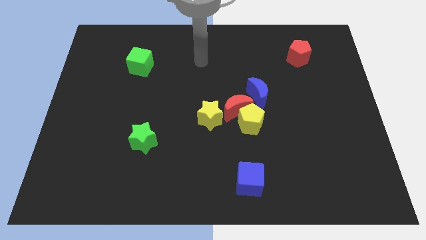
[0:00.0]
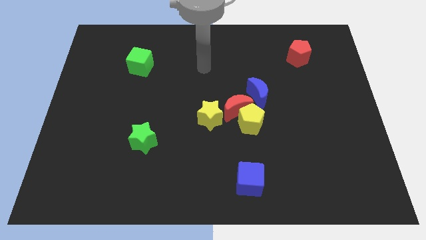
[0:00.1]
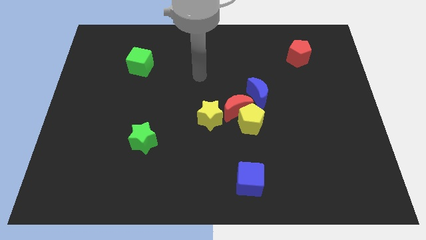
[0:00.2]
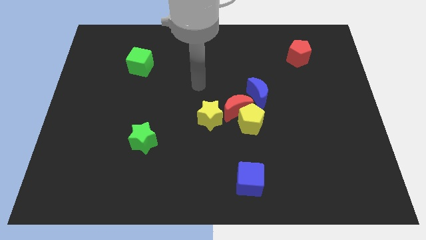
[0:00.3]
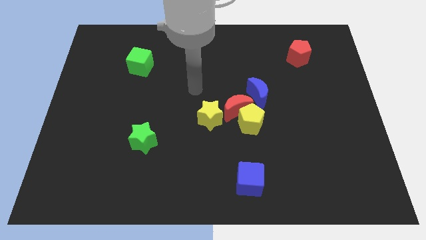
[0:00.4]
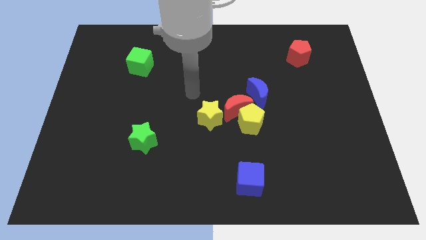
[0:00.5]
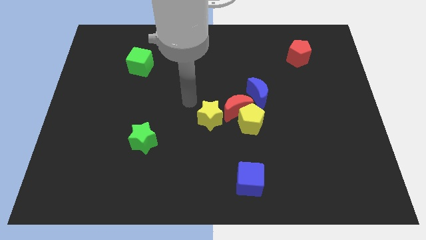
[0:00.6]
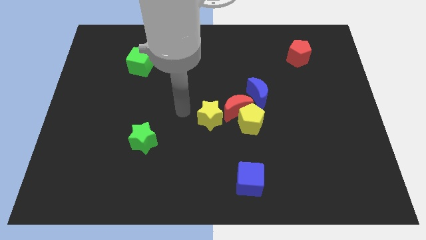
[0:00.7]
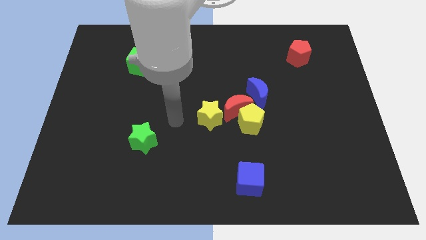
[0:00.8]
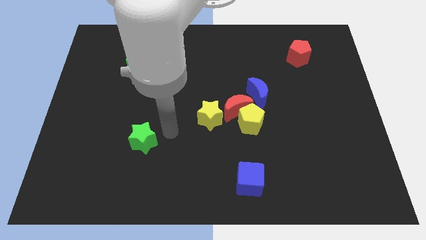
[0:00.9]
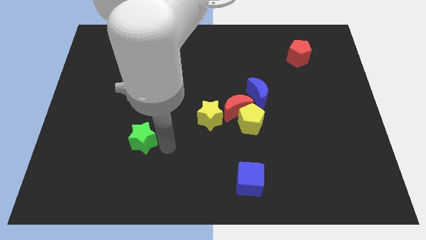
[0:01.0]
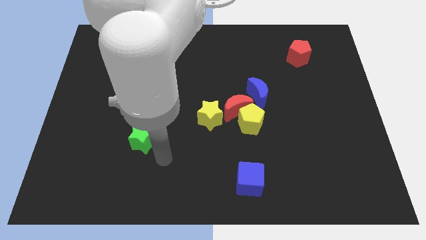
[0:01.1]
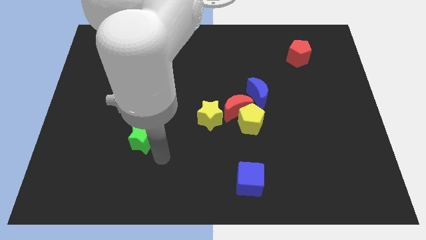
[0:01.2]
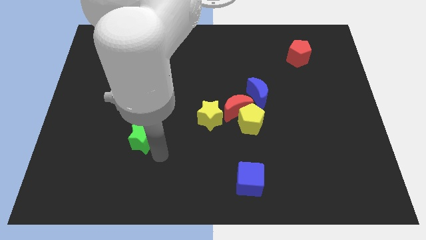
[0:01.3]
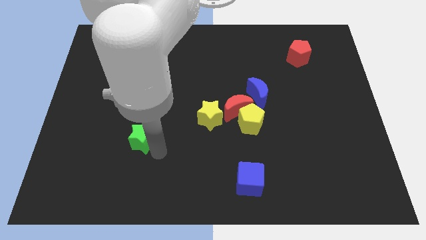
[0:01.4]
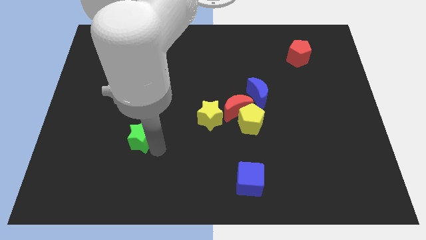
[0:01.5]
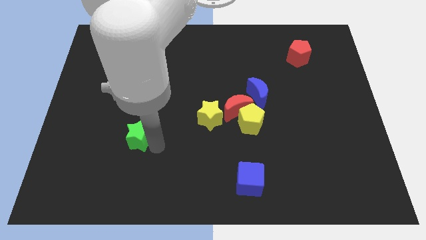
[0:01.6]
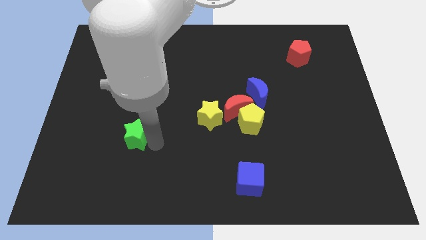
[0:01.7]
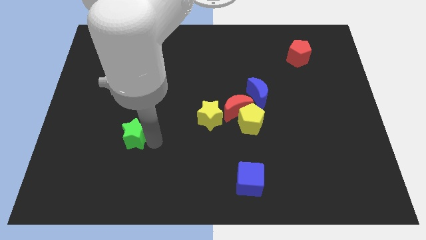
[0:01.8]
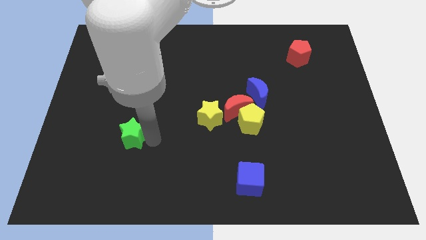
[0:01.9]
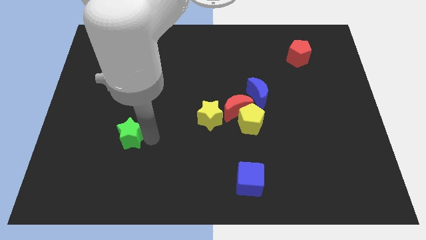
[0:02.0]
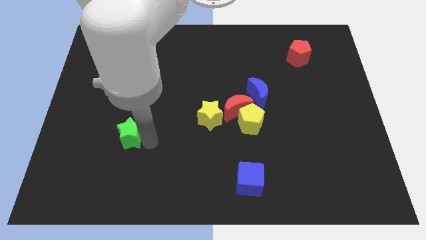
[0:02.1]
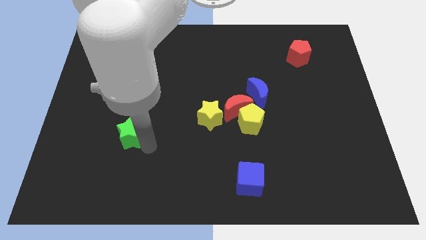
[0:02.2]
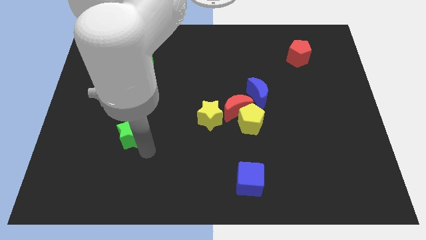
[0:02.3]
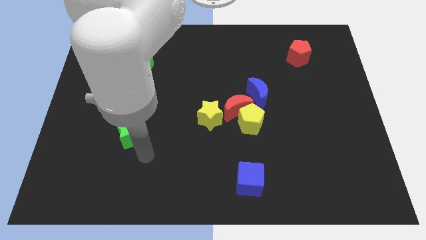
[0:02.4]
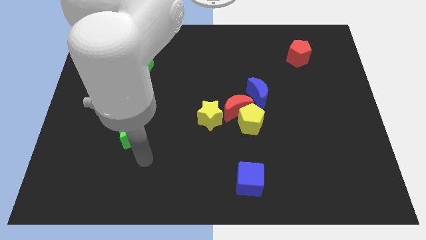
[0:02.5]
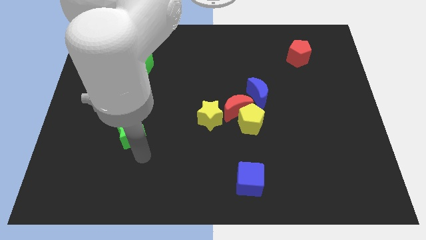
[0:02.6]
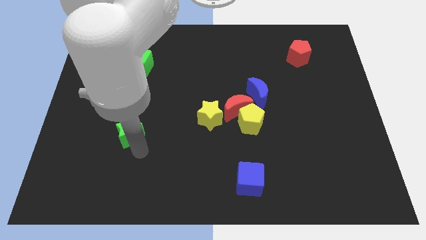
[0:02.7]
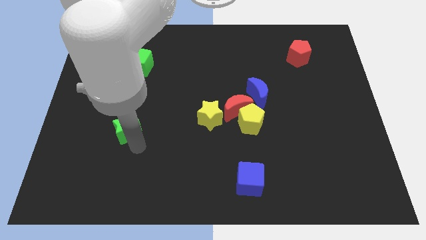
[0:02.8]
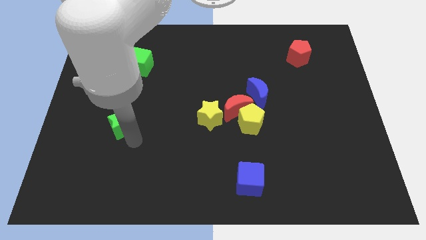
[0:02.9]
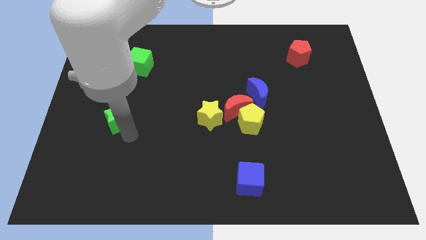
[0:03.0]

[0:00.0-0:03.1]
slide the green star a bit upwards and left diagonally

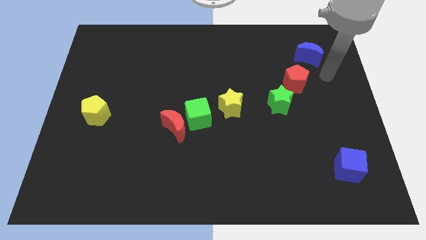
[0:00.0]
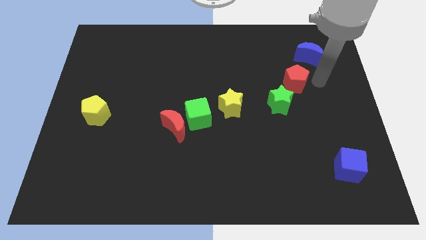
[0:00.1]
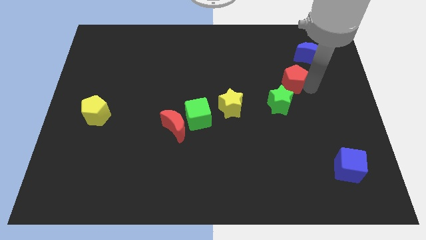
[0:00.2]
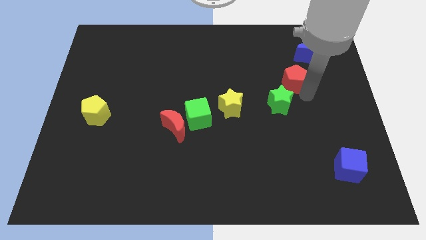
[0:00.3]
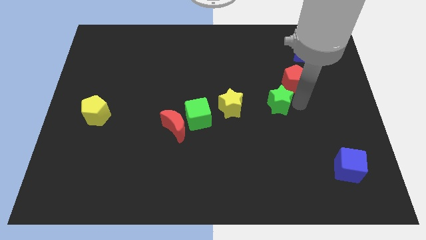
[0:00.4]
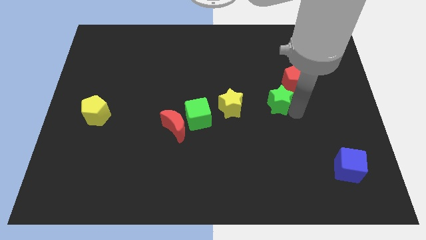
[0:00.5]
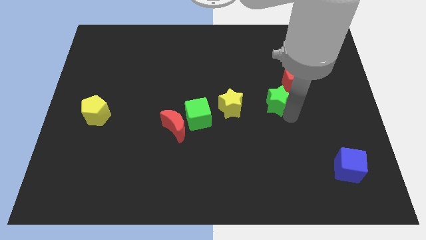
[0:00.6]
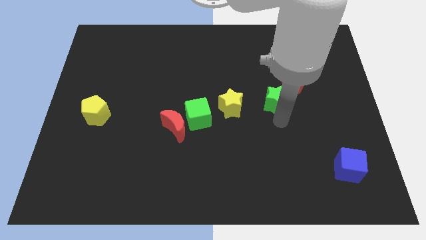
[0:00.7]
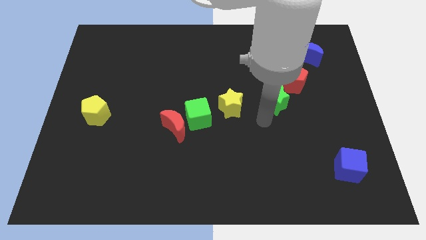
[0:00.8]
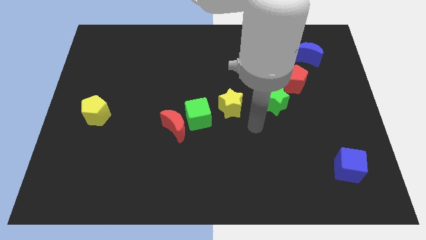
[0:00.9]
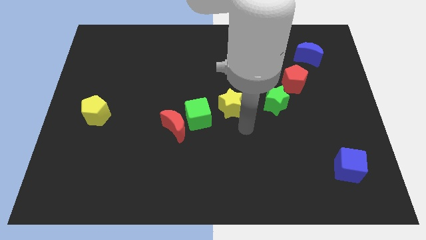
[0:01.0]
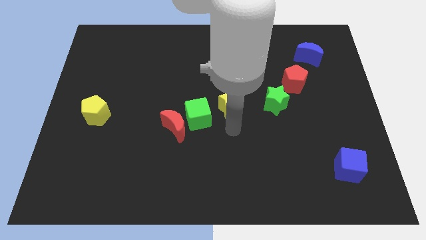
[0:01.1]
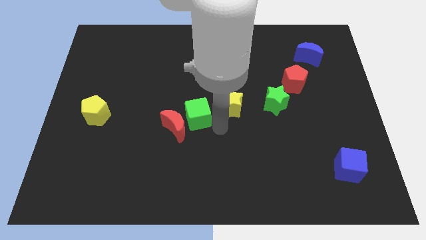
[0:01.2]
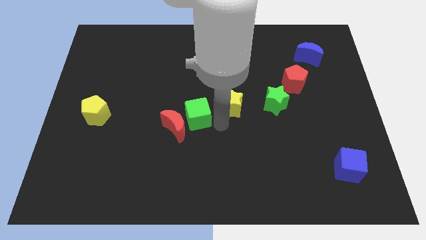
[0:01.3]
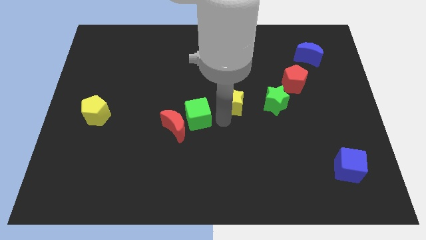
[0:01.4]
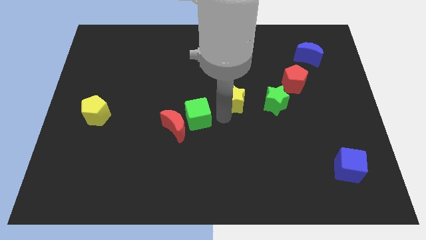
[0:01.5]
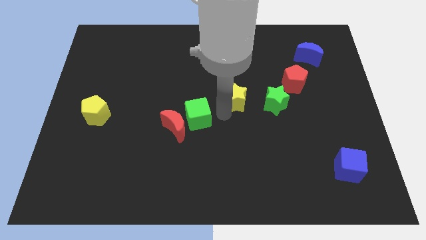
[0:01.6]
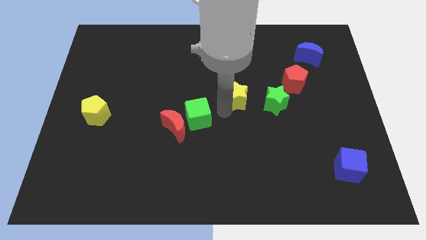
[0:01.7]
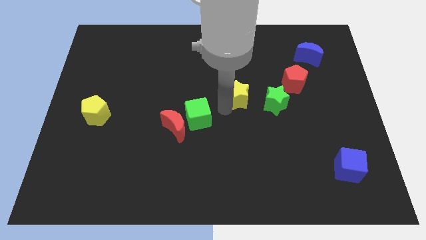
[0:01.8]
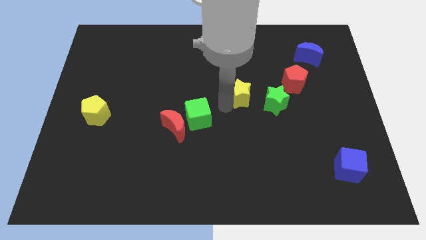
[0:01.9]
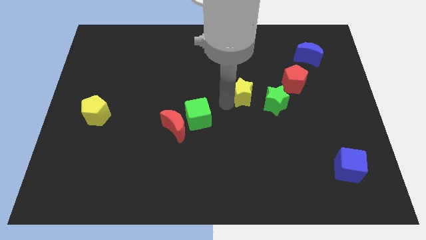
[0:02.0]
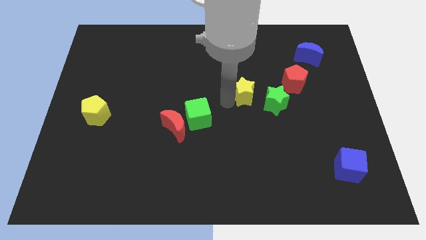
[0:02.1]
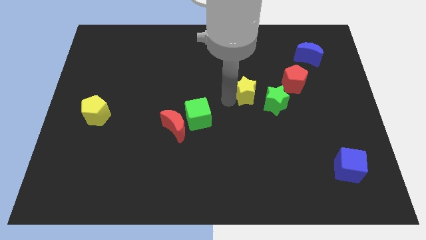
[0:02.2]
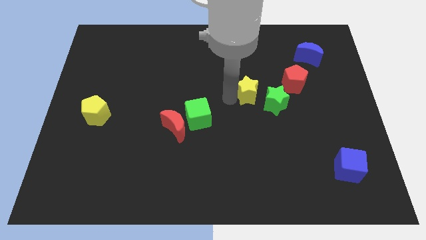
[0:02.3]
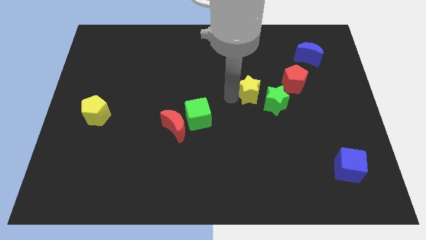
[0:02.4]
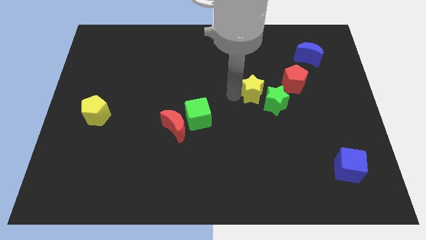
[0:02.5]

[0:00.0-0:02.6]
move the yellow star slightly upwards and right diagonally

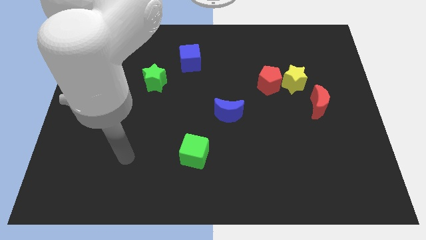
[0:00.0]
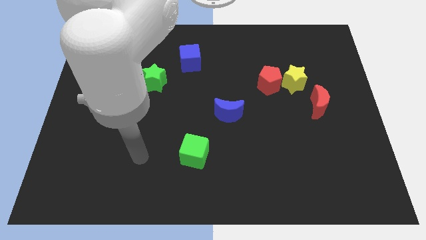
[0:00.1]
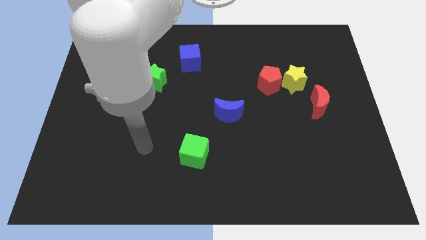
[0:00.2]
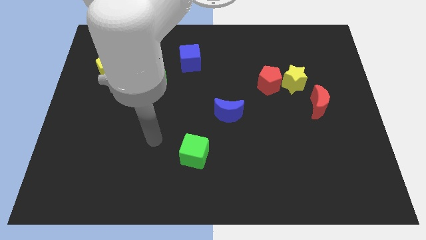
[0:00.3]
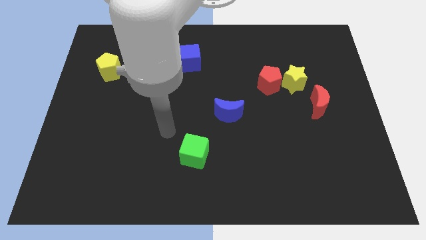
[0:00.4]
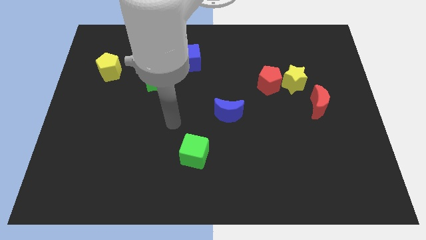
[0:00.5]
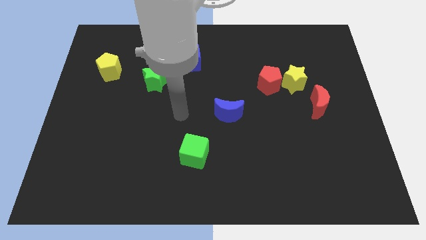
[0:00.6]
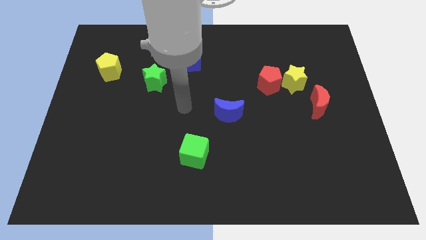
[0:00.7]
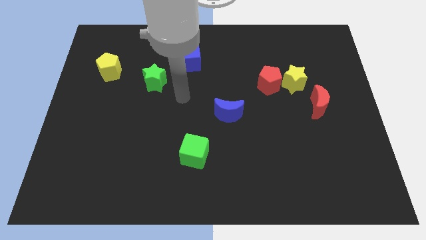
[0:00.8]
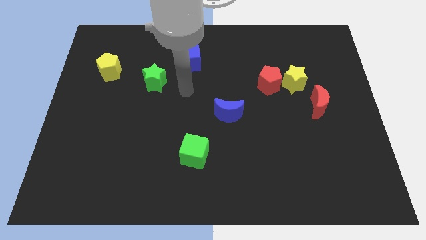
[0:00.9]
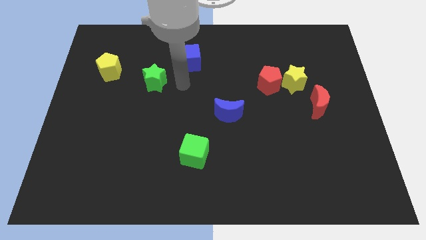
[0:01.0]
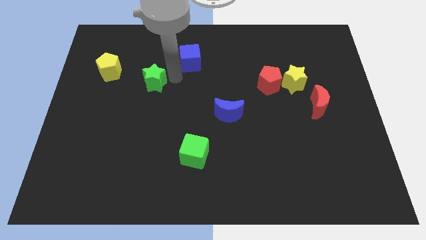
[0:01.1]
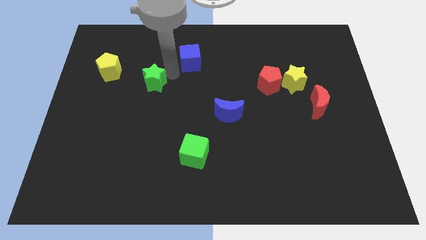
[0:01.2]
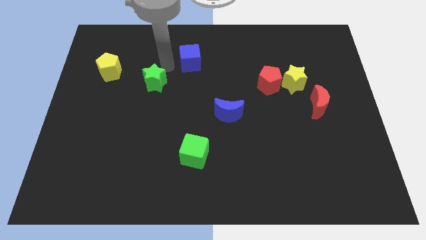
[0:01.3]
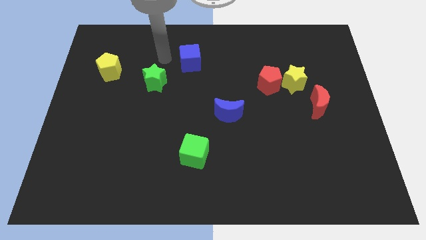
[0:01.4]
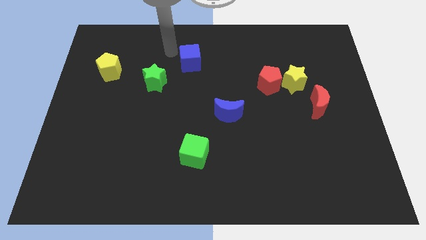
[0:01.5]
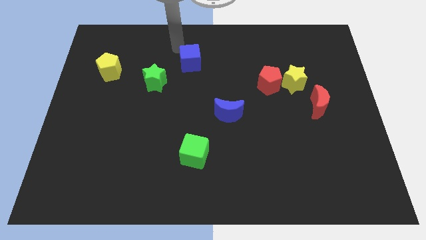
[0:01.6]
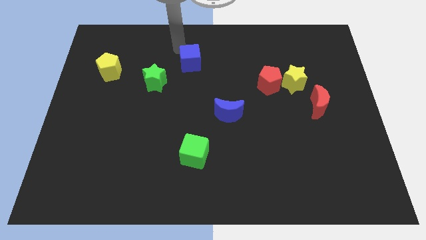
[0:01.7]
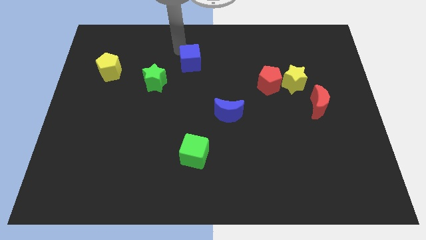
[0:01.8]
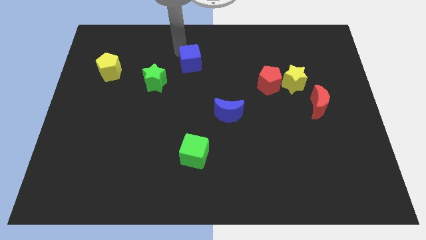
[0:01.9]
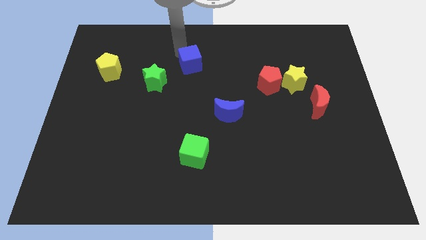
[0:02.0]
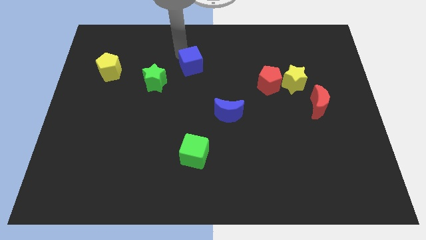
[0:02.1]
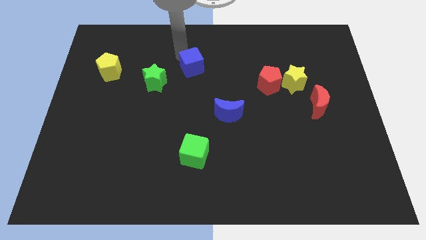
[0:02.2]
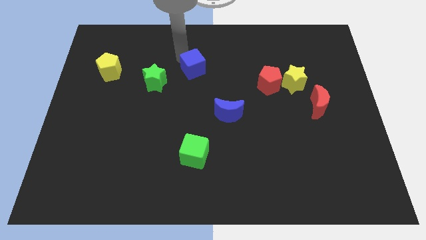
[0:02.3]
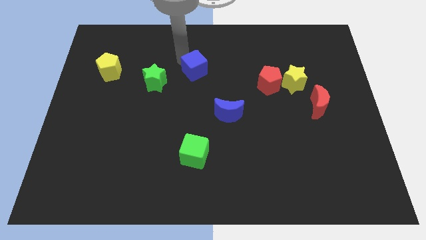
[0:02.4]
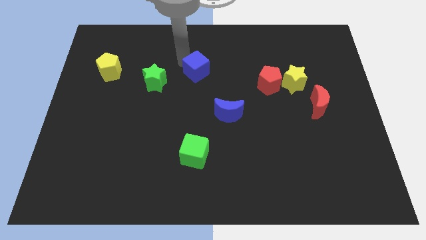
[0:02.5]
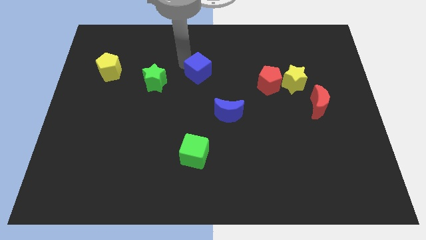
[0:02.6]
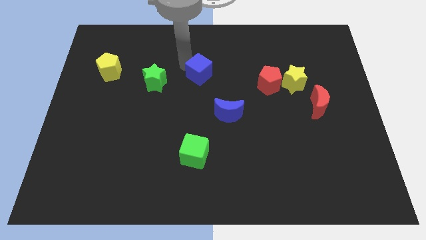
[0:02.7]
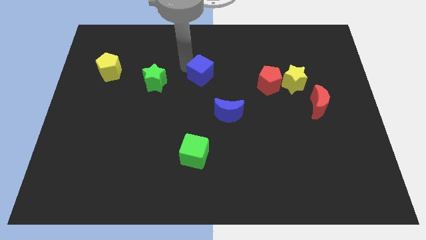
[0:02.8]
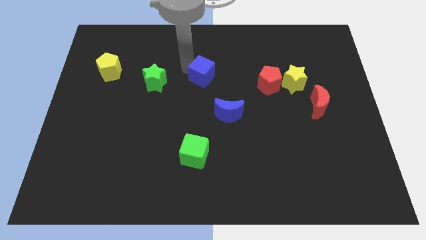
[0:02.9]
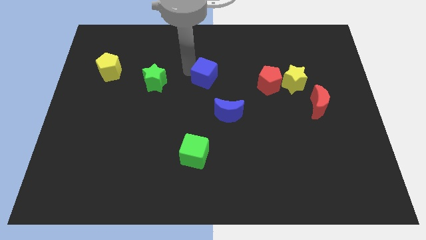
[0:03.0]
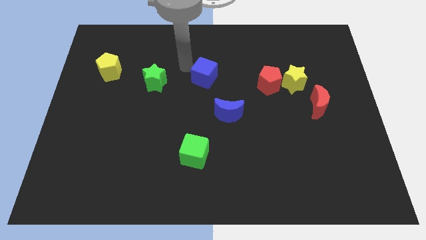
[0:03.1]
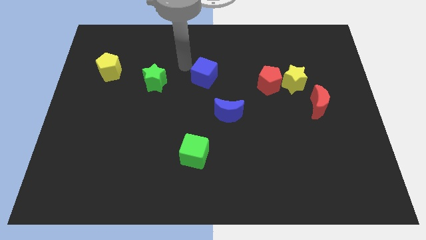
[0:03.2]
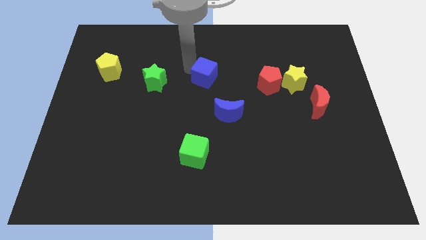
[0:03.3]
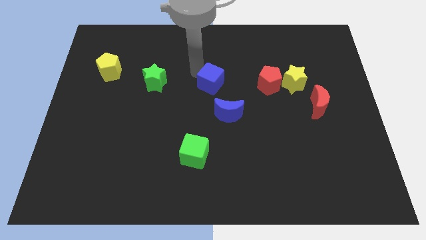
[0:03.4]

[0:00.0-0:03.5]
slide the blue cube a little diagonally downwards and to the right
